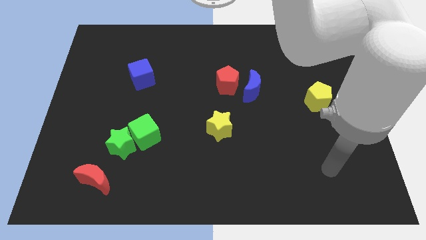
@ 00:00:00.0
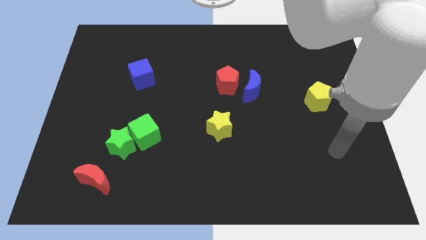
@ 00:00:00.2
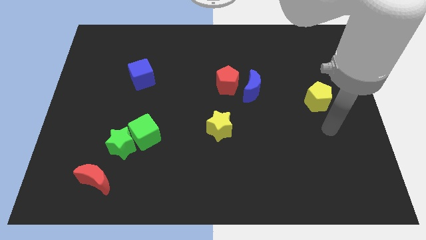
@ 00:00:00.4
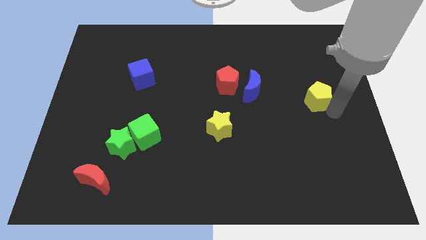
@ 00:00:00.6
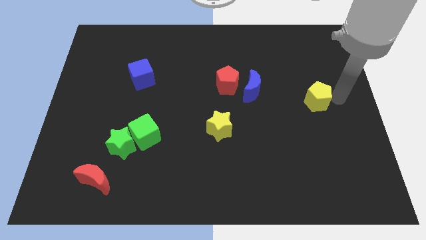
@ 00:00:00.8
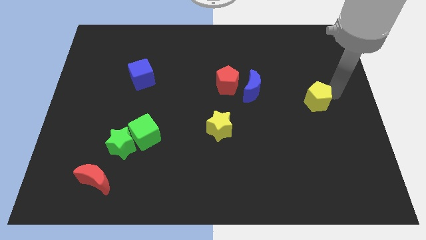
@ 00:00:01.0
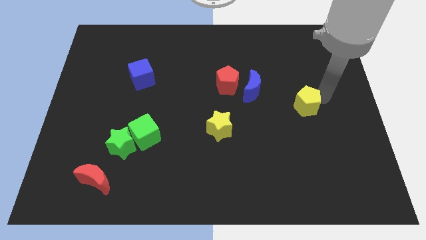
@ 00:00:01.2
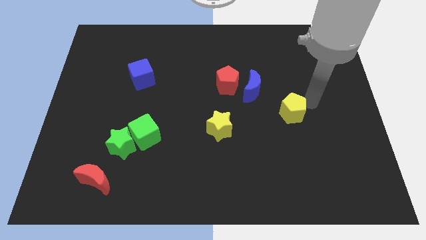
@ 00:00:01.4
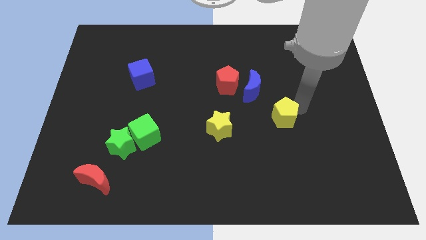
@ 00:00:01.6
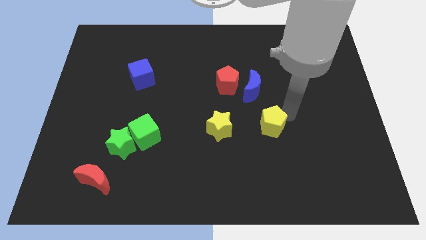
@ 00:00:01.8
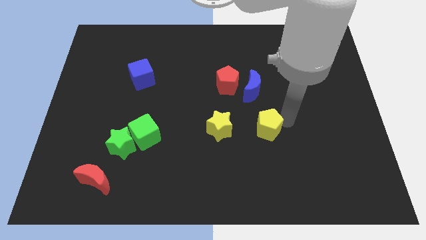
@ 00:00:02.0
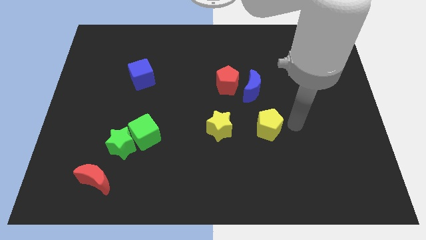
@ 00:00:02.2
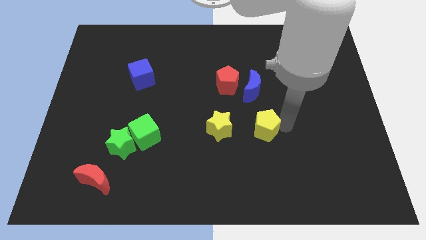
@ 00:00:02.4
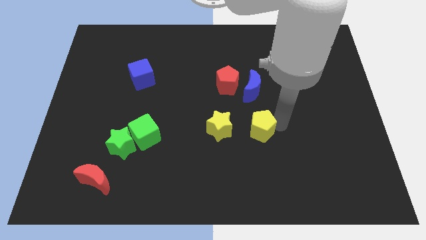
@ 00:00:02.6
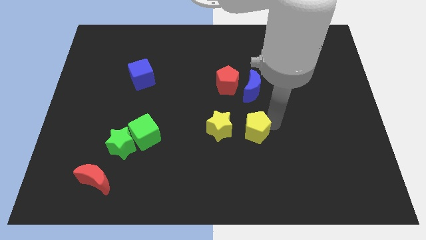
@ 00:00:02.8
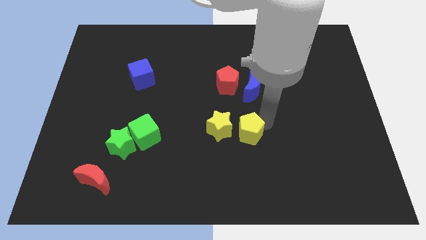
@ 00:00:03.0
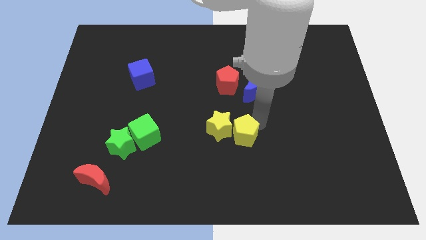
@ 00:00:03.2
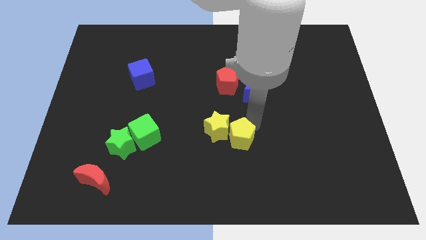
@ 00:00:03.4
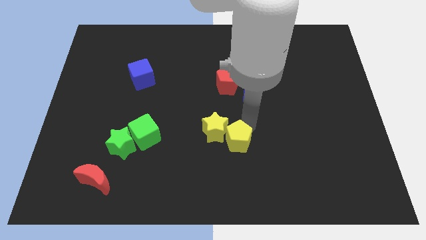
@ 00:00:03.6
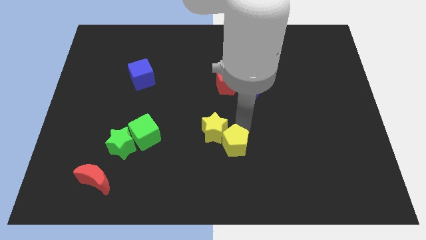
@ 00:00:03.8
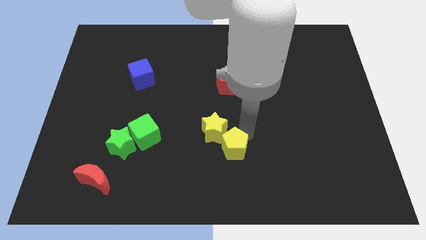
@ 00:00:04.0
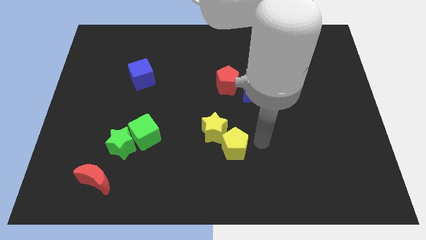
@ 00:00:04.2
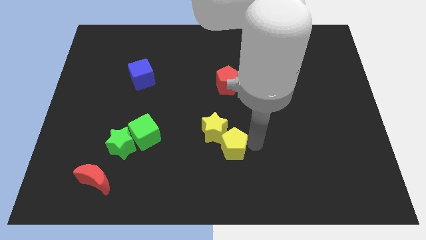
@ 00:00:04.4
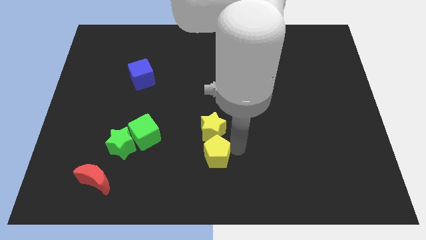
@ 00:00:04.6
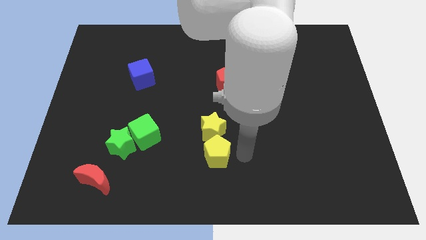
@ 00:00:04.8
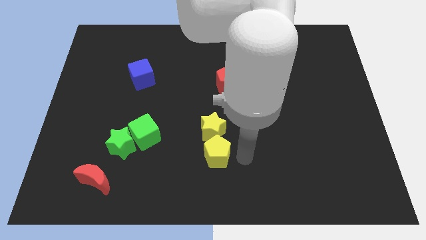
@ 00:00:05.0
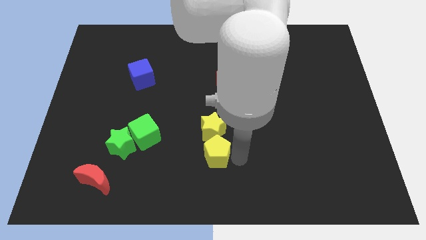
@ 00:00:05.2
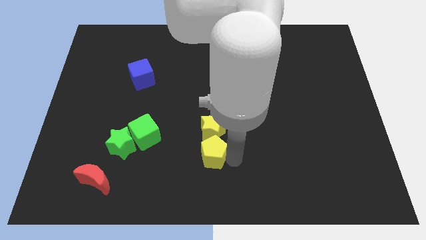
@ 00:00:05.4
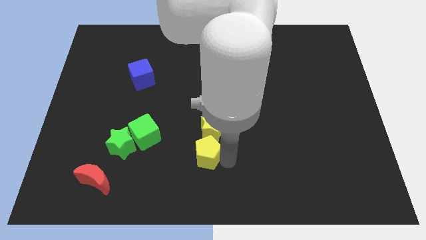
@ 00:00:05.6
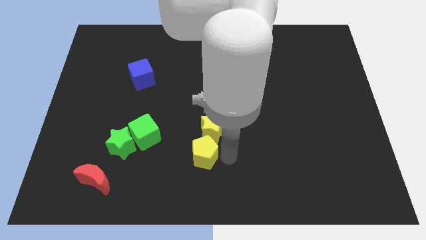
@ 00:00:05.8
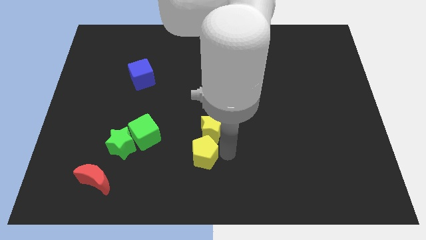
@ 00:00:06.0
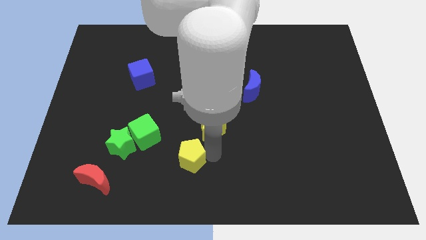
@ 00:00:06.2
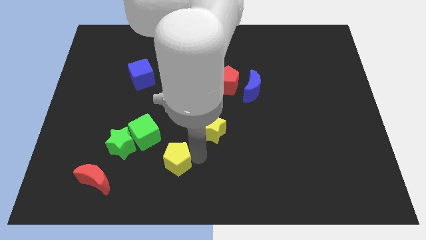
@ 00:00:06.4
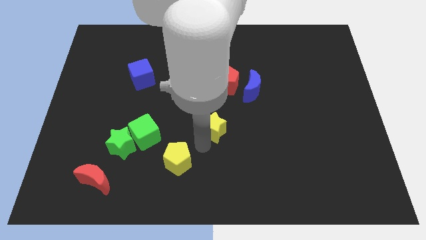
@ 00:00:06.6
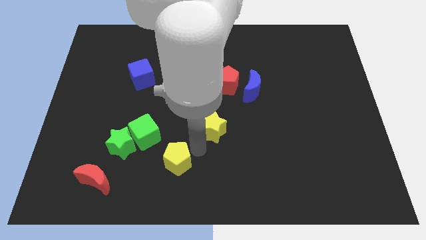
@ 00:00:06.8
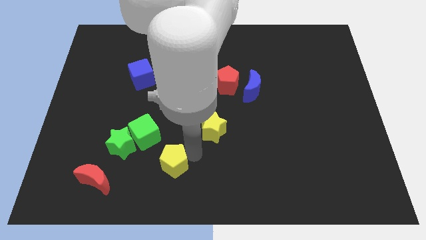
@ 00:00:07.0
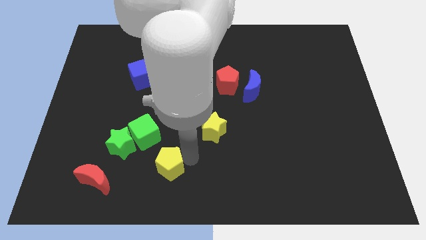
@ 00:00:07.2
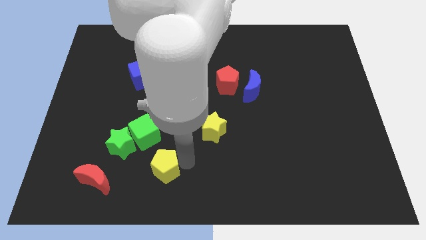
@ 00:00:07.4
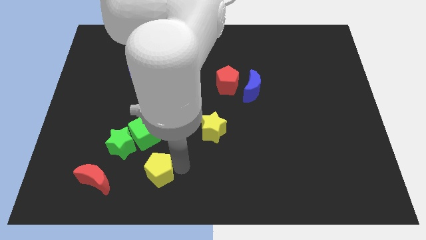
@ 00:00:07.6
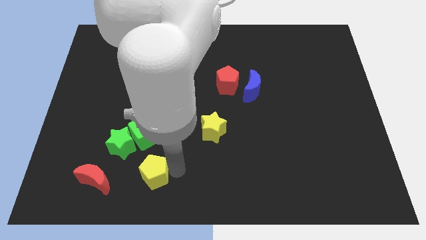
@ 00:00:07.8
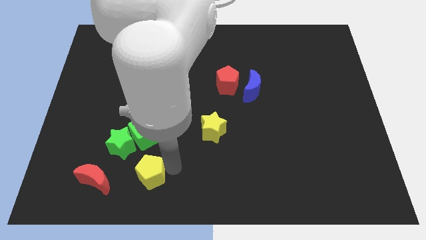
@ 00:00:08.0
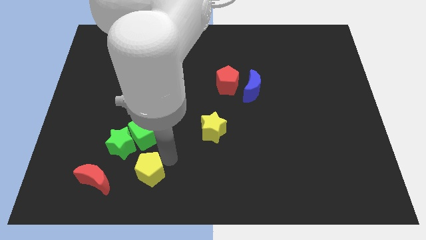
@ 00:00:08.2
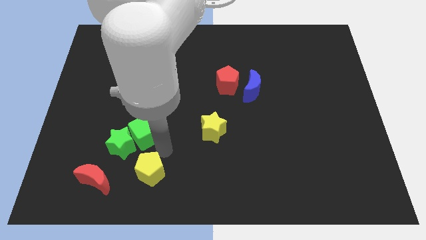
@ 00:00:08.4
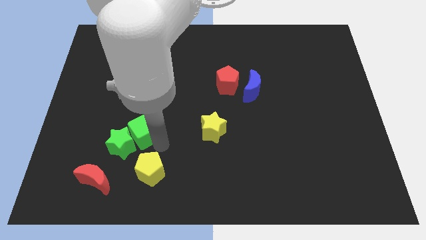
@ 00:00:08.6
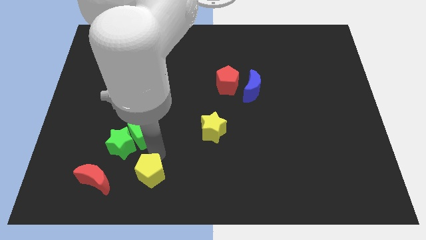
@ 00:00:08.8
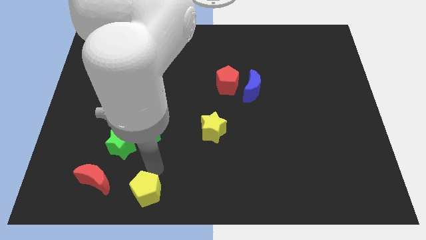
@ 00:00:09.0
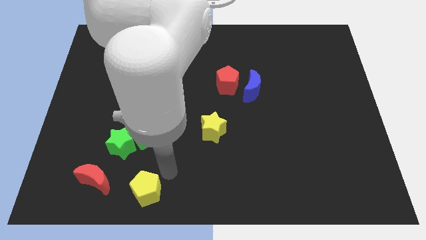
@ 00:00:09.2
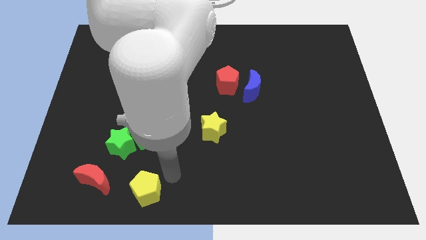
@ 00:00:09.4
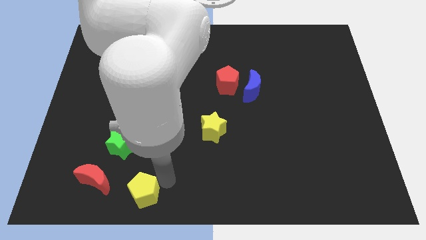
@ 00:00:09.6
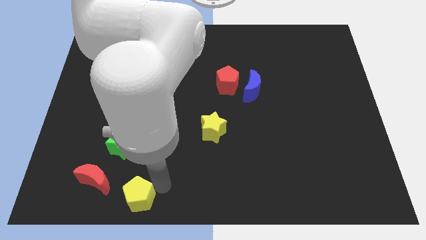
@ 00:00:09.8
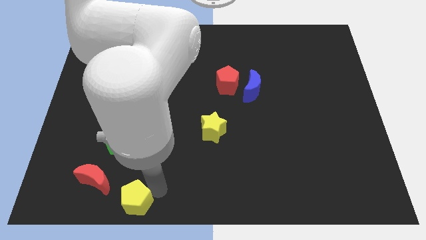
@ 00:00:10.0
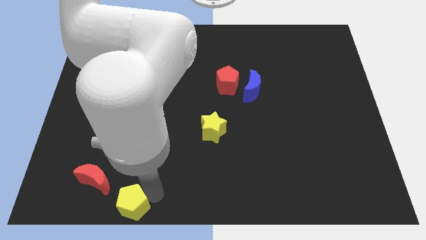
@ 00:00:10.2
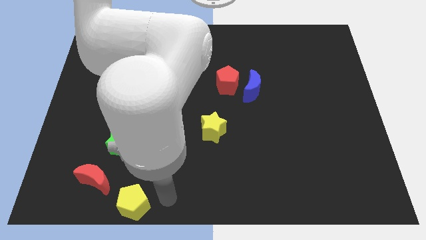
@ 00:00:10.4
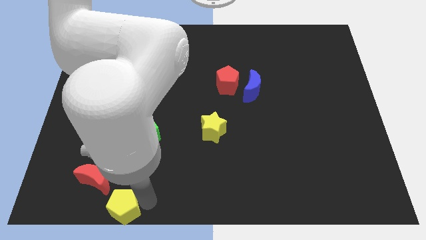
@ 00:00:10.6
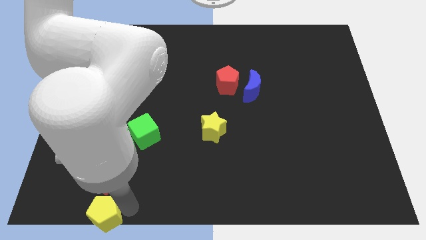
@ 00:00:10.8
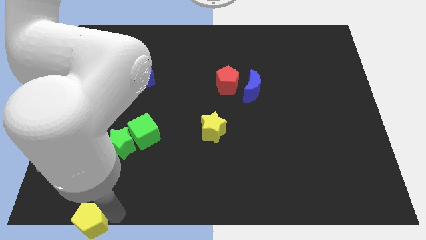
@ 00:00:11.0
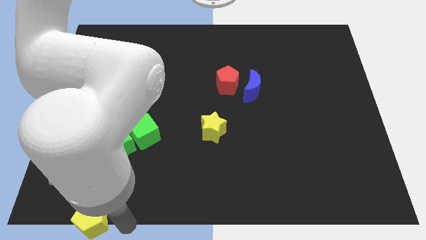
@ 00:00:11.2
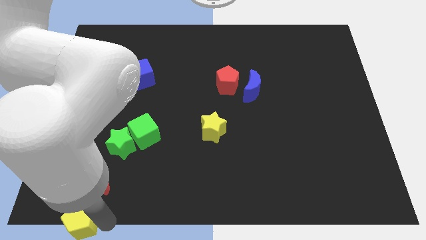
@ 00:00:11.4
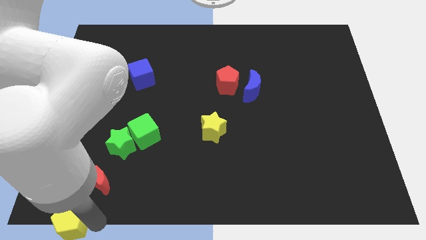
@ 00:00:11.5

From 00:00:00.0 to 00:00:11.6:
move the yellow pentagon to the bottom left corner

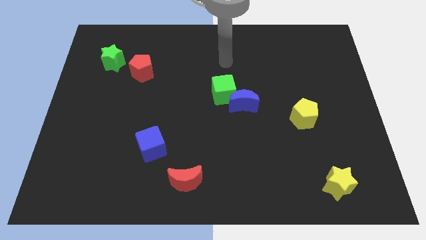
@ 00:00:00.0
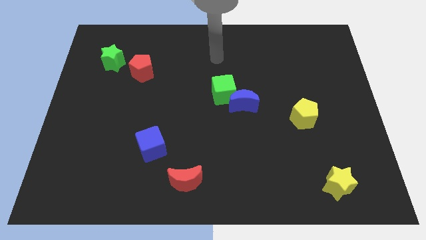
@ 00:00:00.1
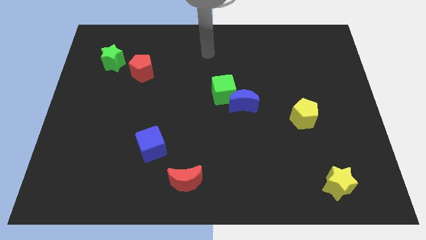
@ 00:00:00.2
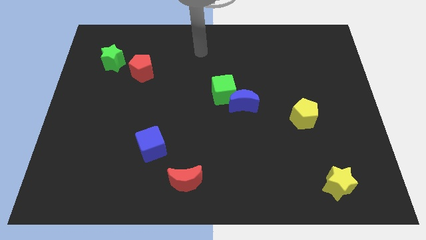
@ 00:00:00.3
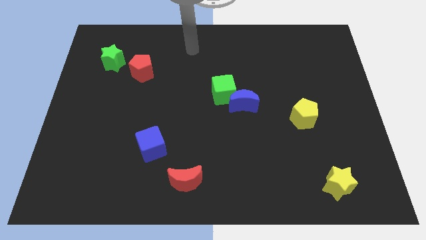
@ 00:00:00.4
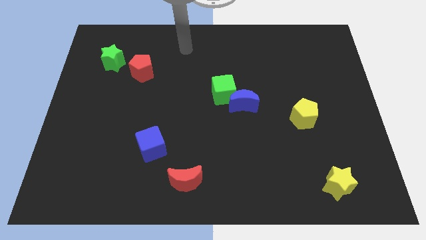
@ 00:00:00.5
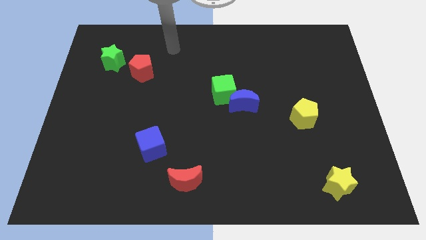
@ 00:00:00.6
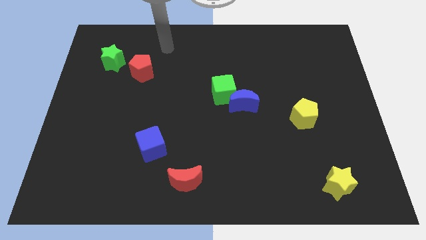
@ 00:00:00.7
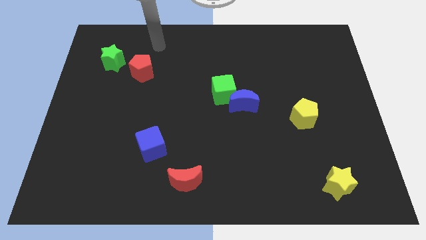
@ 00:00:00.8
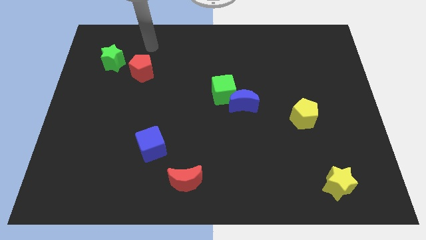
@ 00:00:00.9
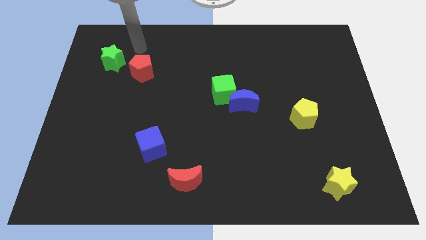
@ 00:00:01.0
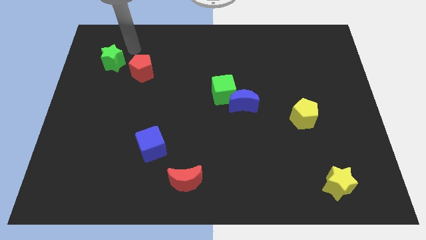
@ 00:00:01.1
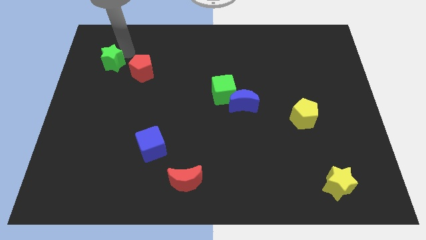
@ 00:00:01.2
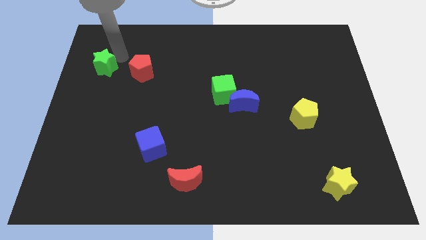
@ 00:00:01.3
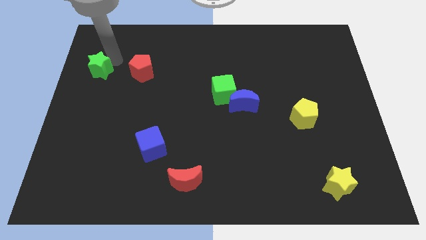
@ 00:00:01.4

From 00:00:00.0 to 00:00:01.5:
slide the green star to the left side of the board
